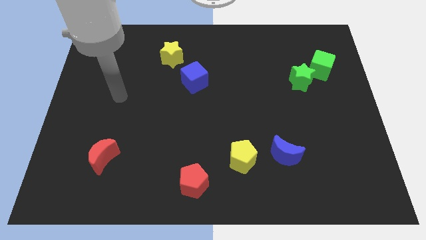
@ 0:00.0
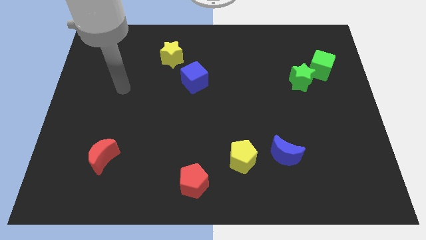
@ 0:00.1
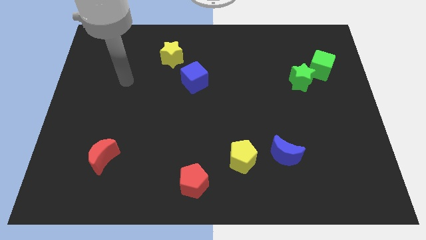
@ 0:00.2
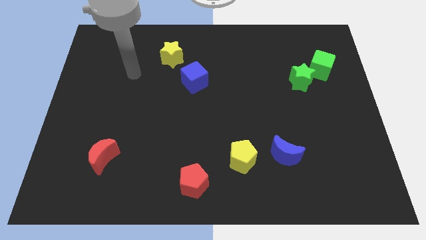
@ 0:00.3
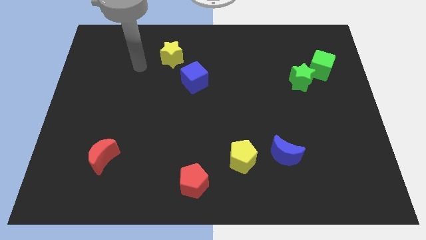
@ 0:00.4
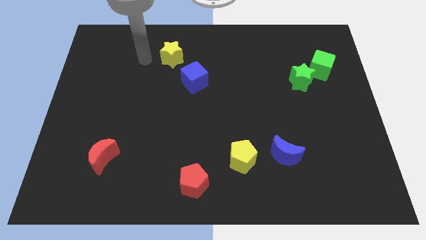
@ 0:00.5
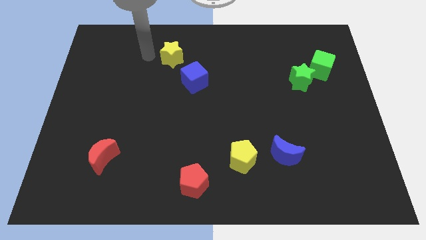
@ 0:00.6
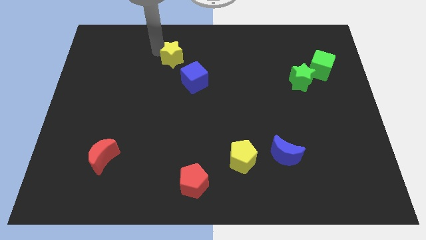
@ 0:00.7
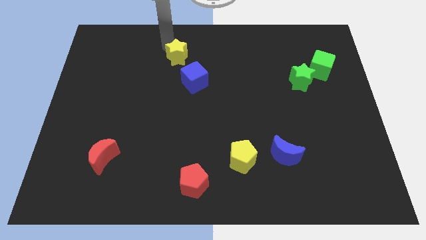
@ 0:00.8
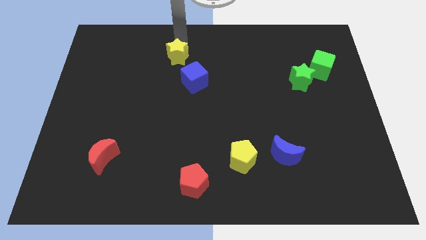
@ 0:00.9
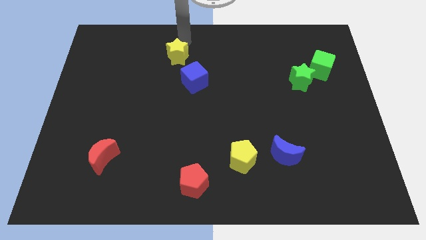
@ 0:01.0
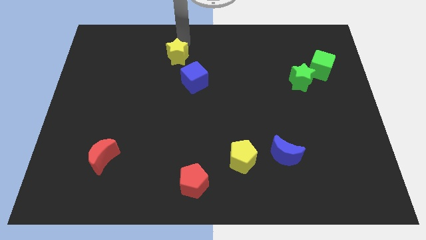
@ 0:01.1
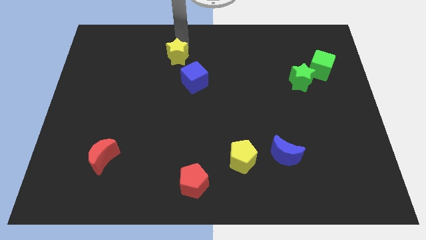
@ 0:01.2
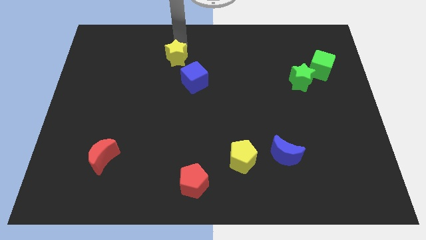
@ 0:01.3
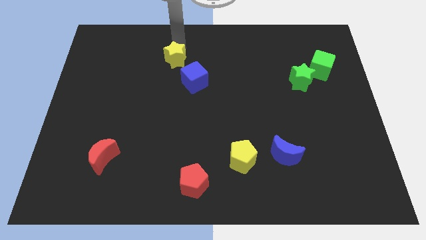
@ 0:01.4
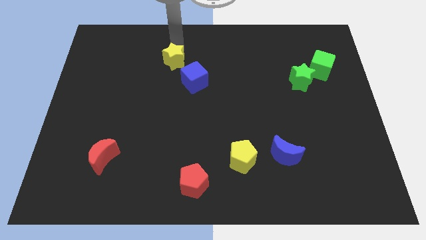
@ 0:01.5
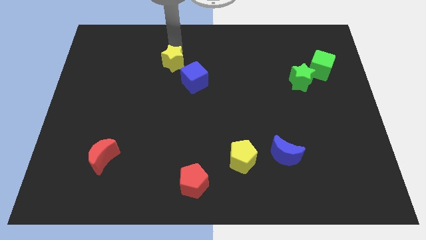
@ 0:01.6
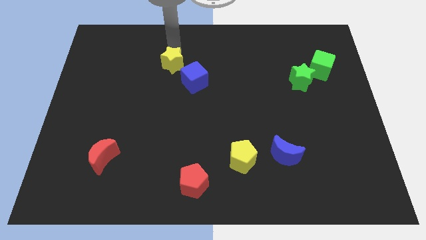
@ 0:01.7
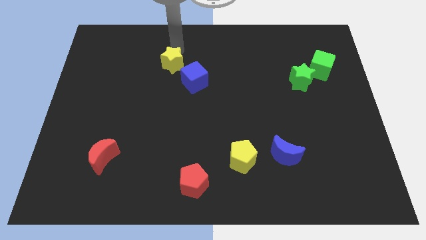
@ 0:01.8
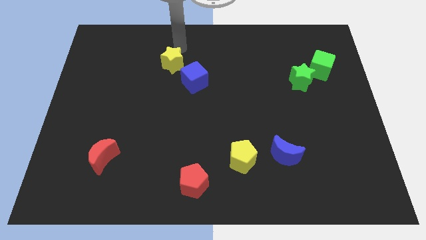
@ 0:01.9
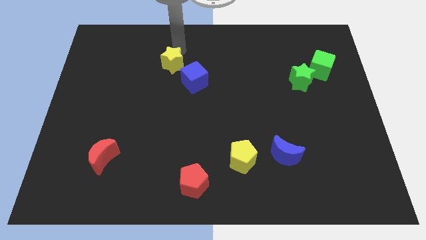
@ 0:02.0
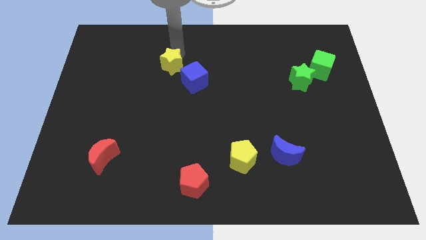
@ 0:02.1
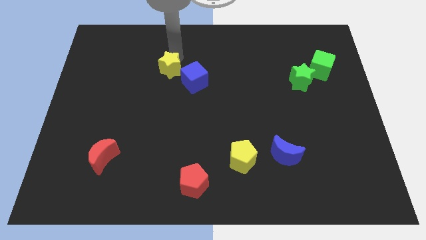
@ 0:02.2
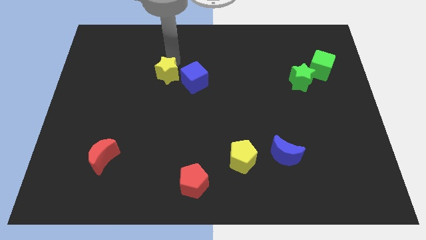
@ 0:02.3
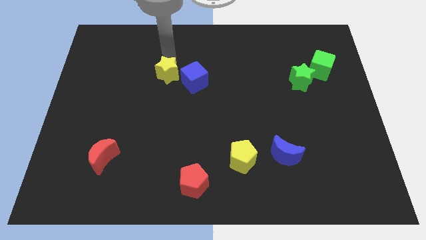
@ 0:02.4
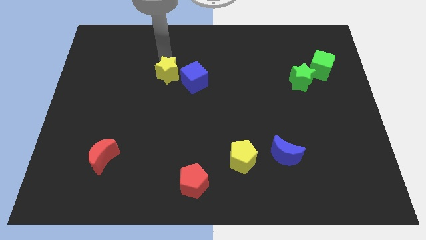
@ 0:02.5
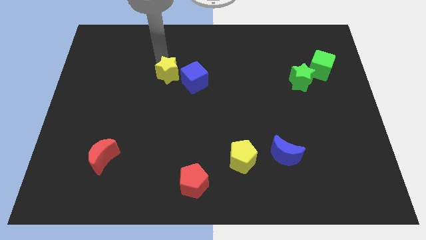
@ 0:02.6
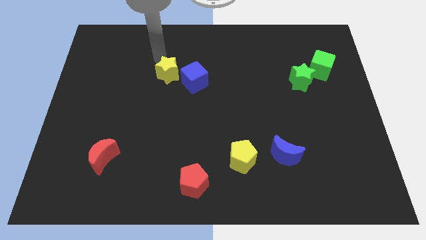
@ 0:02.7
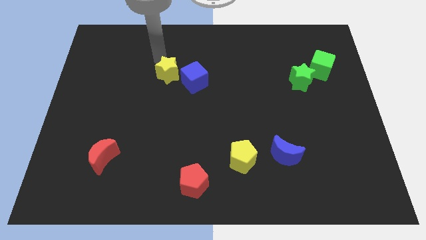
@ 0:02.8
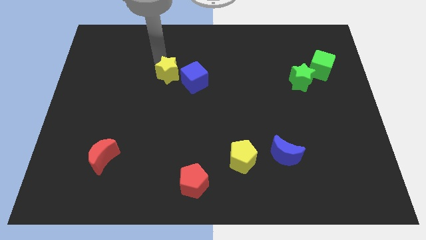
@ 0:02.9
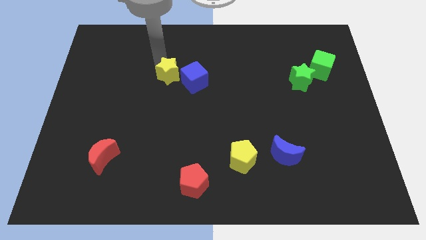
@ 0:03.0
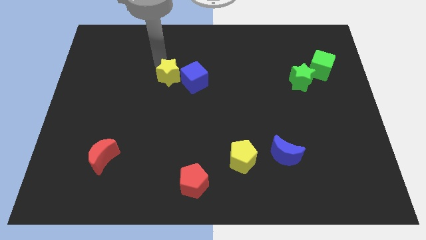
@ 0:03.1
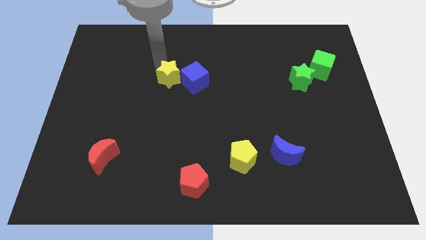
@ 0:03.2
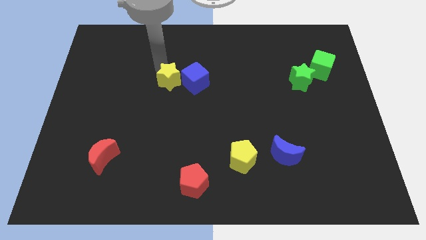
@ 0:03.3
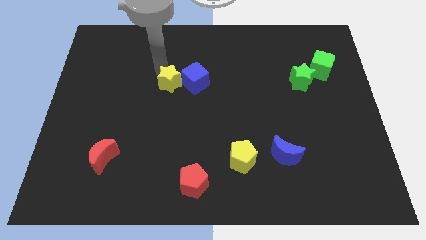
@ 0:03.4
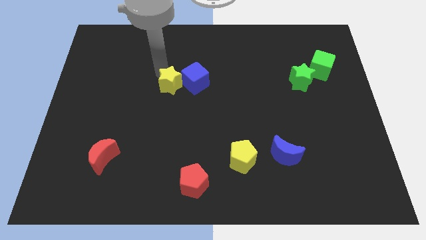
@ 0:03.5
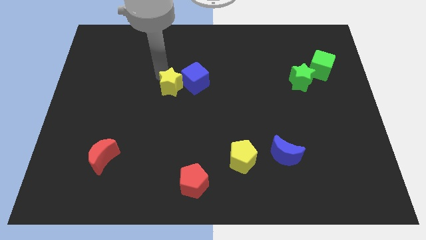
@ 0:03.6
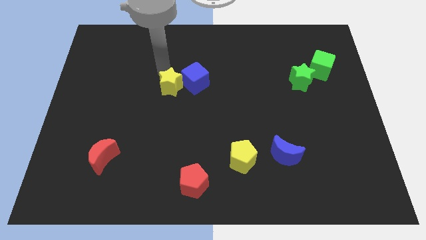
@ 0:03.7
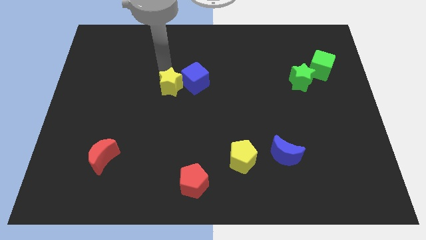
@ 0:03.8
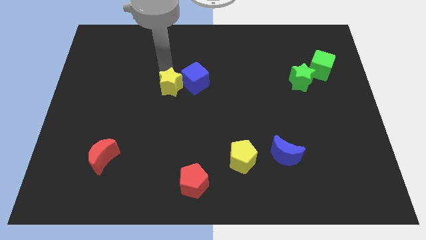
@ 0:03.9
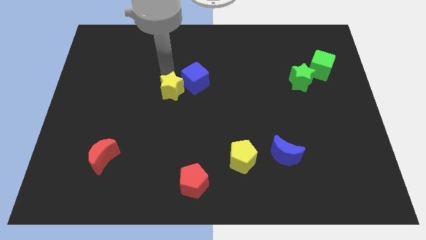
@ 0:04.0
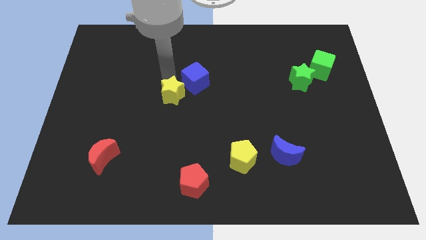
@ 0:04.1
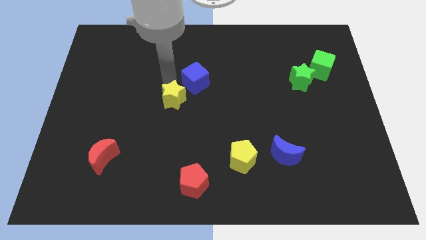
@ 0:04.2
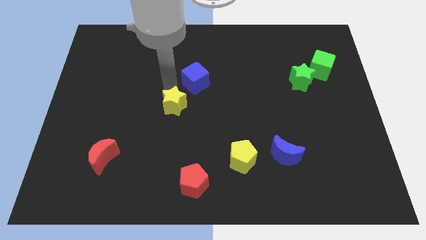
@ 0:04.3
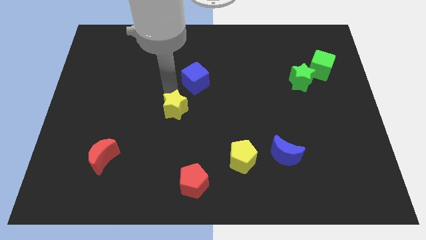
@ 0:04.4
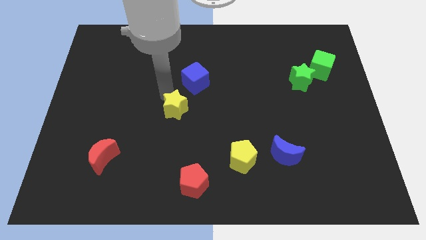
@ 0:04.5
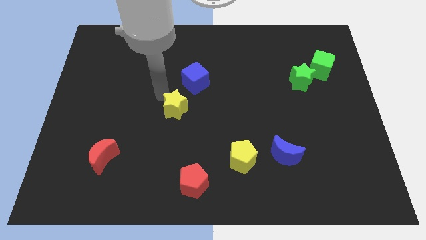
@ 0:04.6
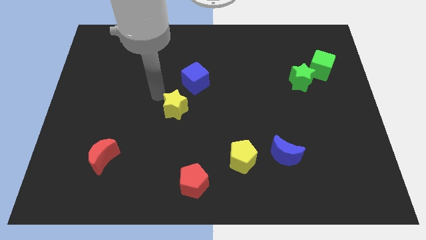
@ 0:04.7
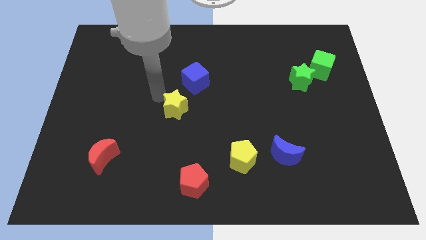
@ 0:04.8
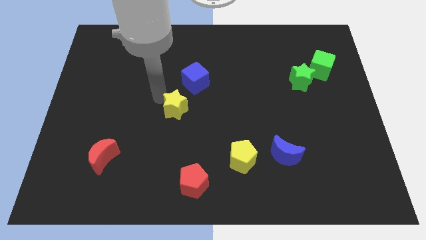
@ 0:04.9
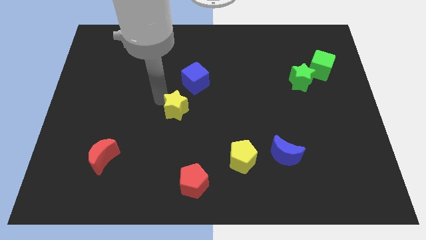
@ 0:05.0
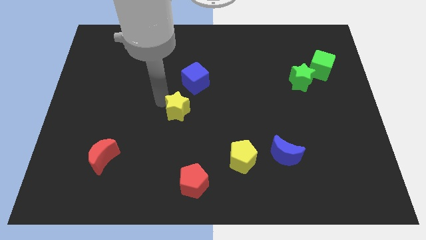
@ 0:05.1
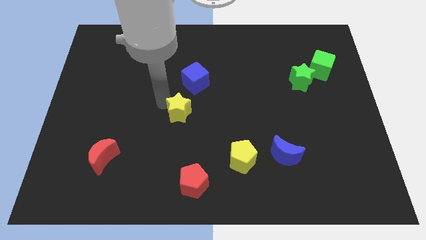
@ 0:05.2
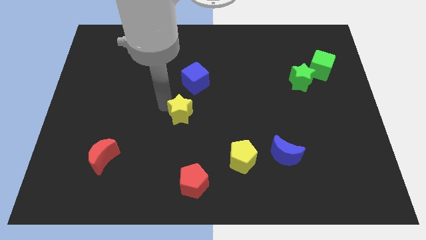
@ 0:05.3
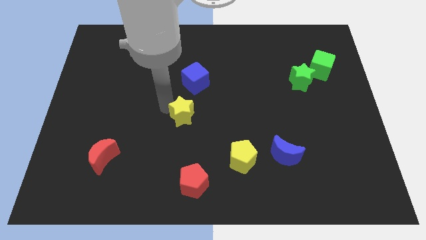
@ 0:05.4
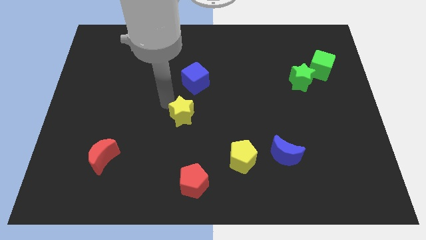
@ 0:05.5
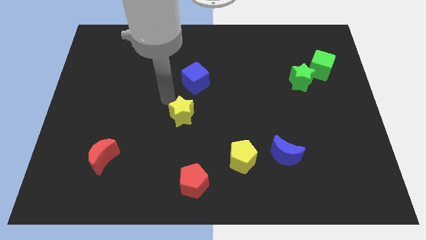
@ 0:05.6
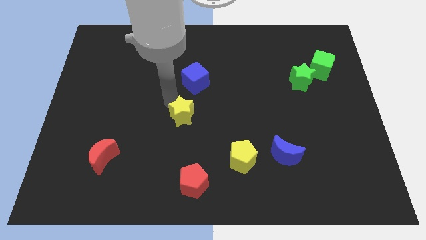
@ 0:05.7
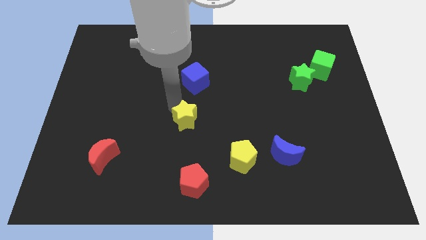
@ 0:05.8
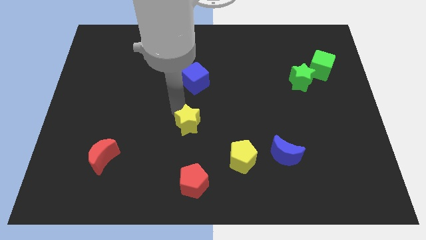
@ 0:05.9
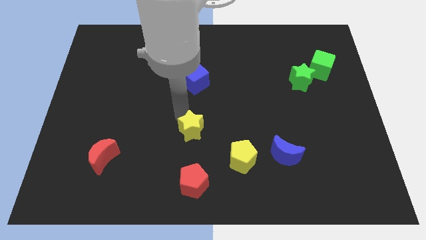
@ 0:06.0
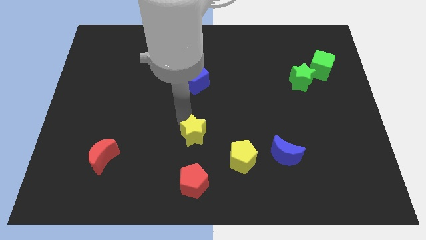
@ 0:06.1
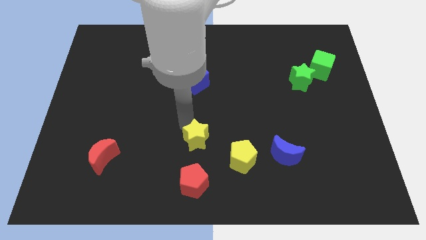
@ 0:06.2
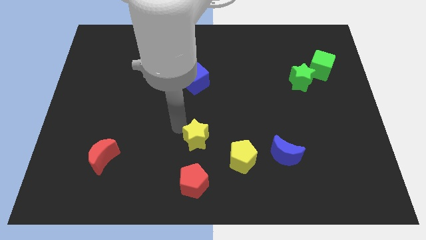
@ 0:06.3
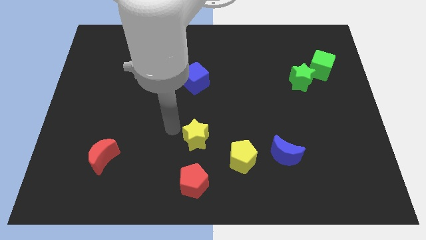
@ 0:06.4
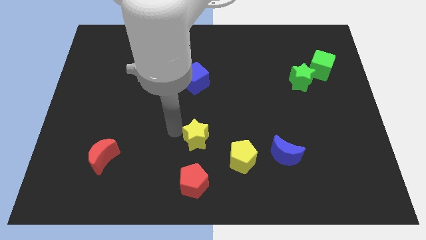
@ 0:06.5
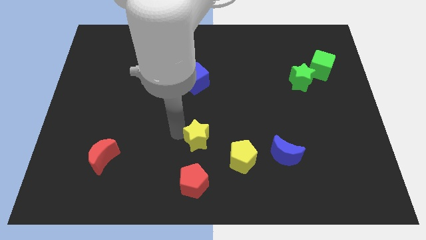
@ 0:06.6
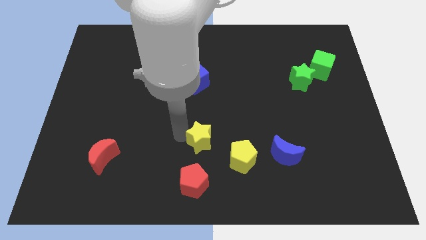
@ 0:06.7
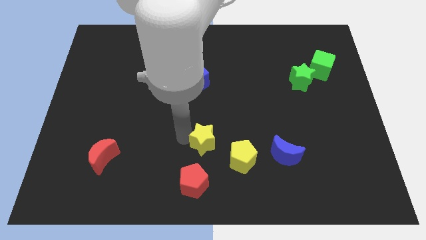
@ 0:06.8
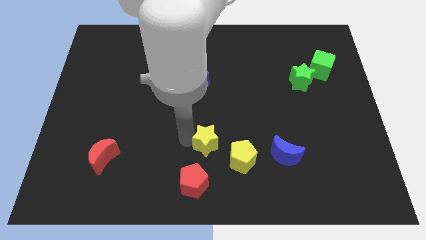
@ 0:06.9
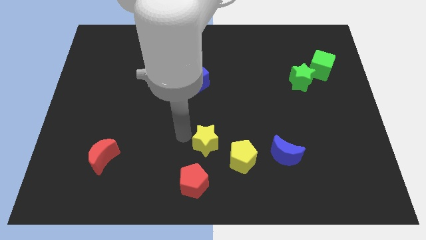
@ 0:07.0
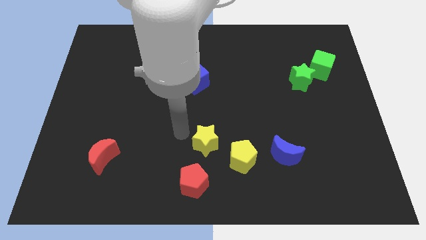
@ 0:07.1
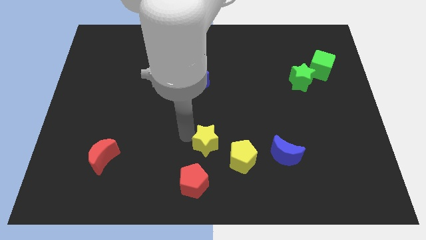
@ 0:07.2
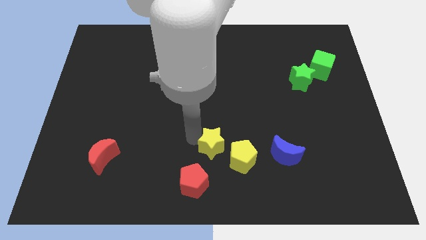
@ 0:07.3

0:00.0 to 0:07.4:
push the yellow star left of the blue moon
